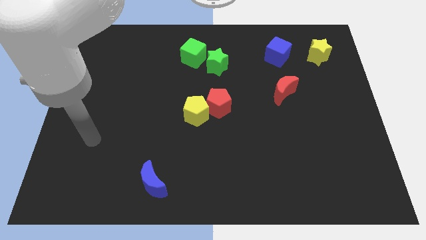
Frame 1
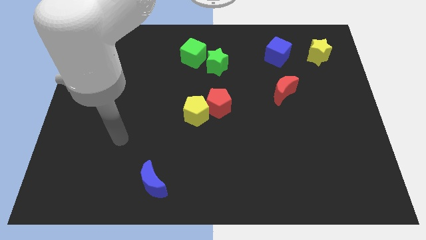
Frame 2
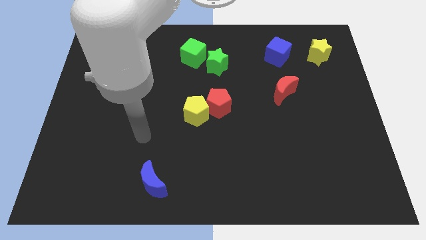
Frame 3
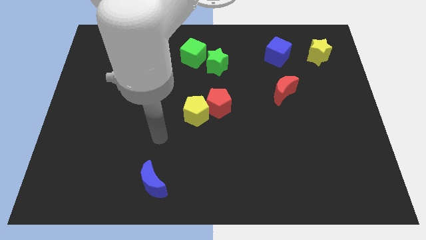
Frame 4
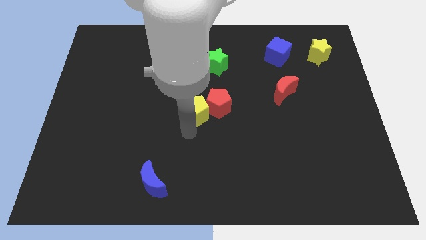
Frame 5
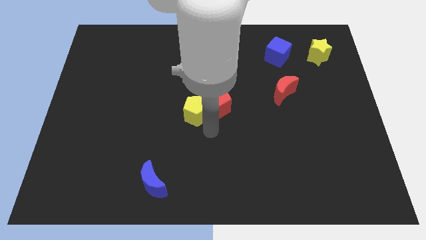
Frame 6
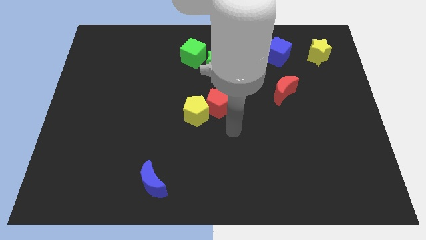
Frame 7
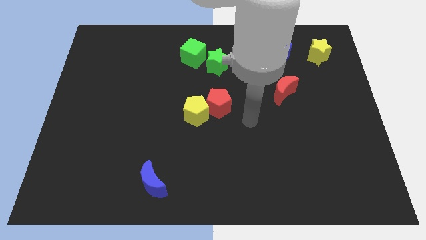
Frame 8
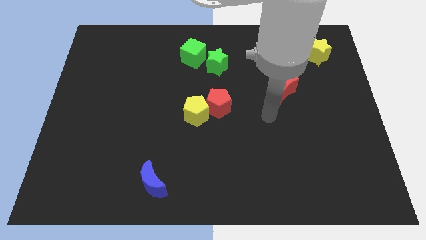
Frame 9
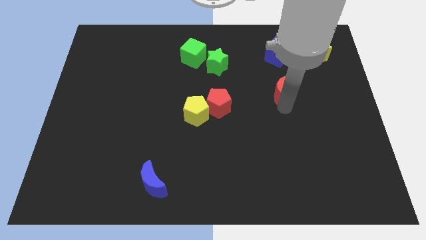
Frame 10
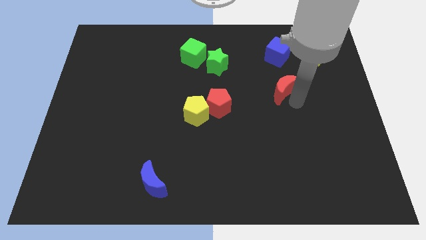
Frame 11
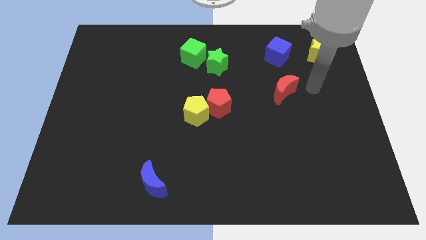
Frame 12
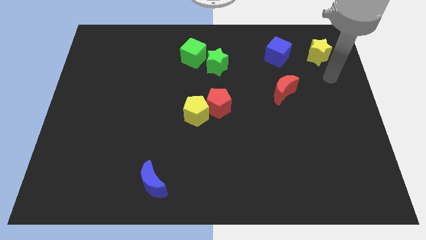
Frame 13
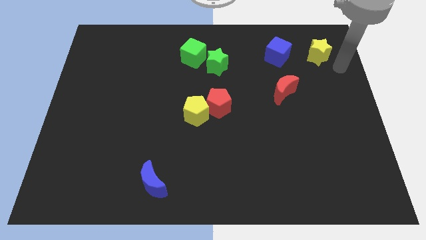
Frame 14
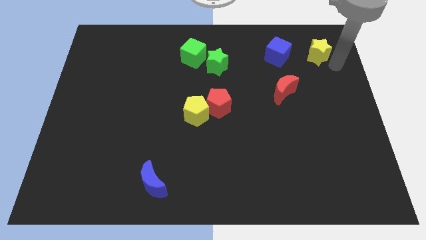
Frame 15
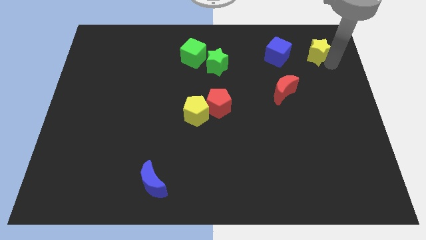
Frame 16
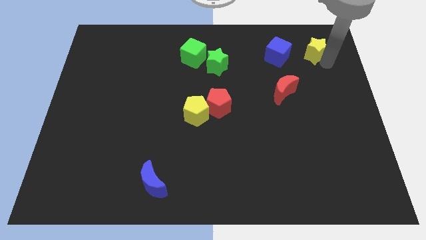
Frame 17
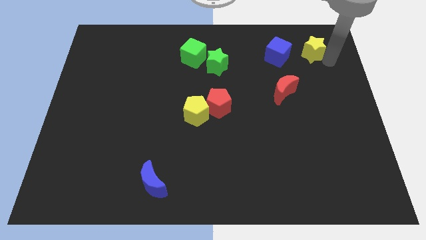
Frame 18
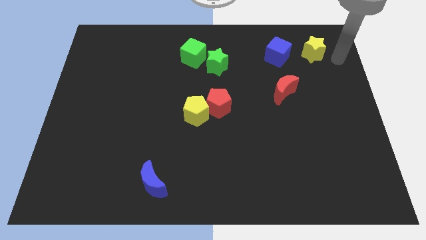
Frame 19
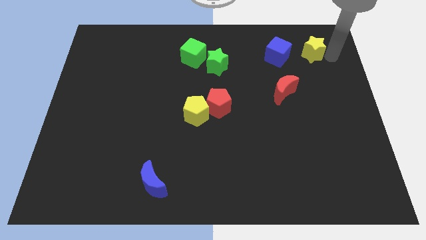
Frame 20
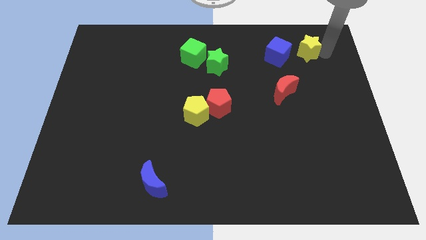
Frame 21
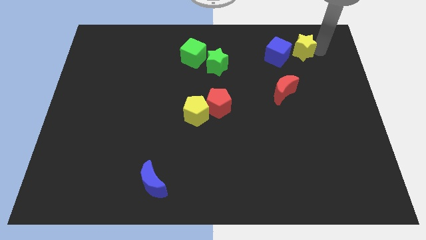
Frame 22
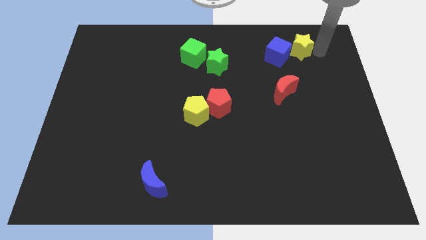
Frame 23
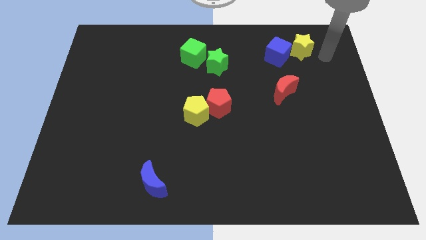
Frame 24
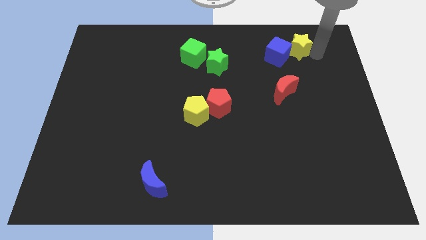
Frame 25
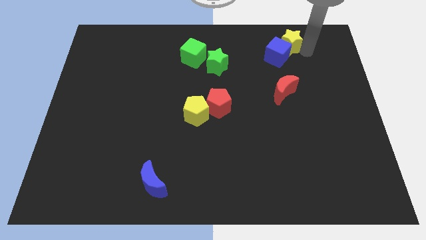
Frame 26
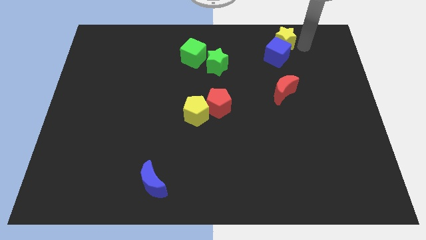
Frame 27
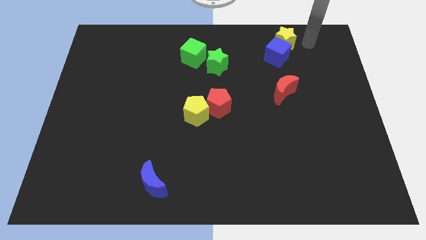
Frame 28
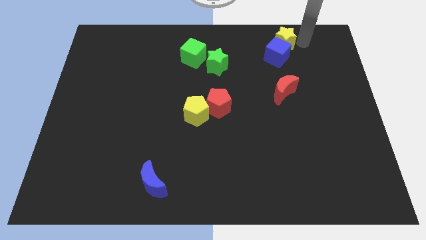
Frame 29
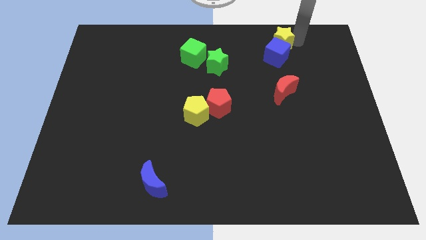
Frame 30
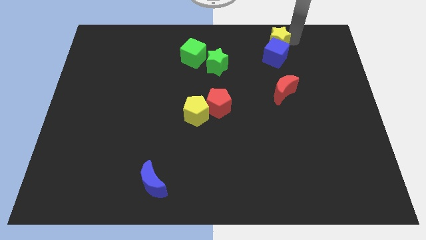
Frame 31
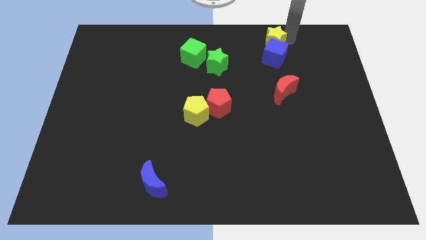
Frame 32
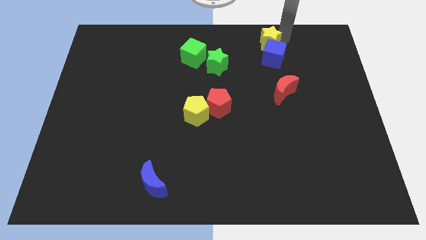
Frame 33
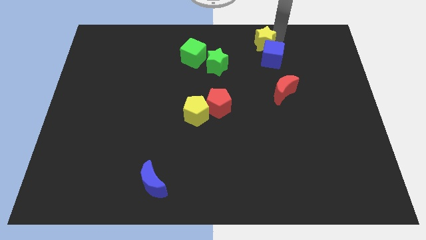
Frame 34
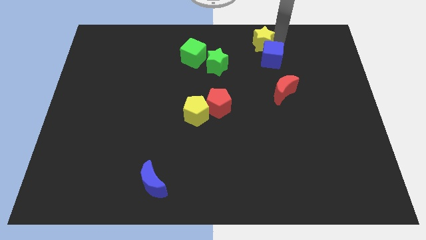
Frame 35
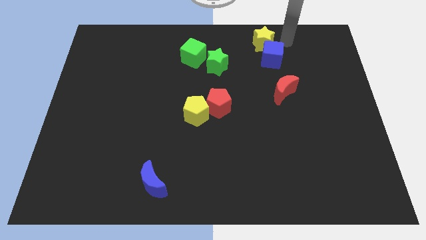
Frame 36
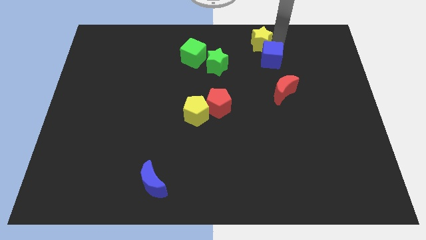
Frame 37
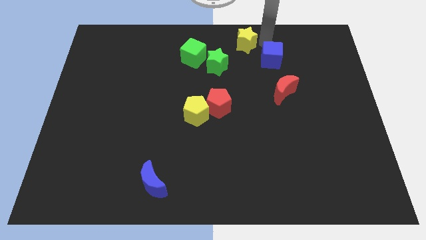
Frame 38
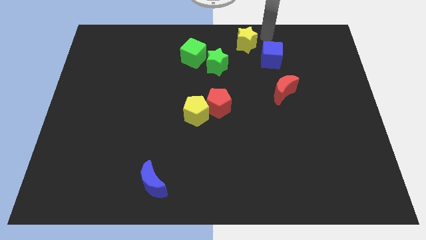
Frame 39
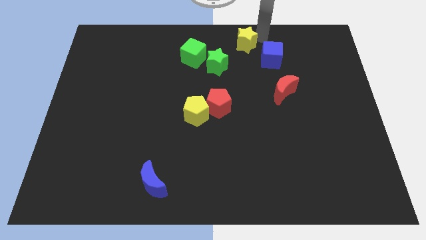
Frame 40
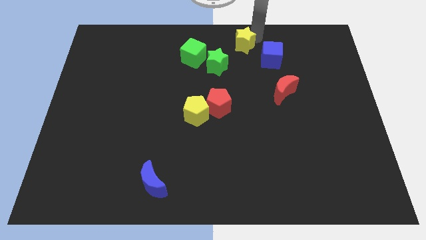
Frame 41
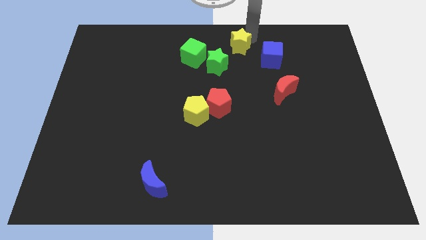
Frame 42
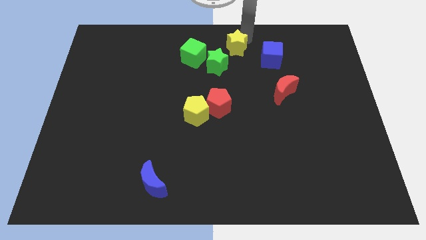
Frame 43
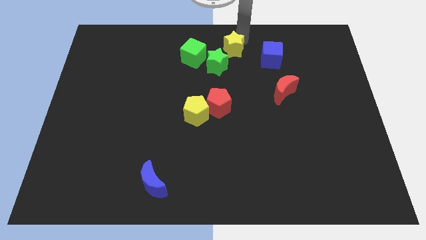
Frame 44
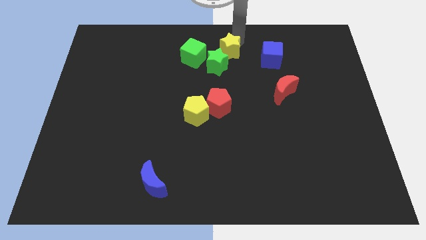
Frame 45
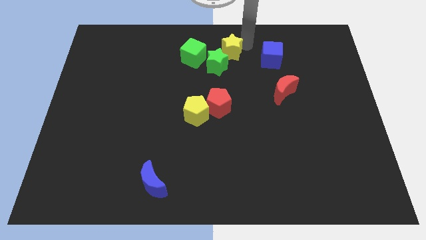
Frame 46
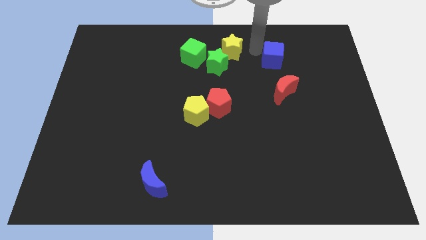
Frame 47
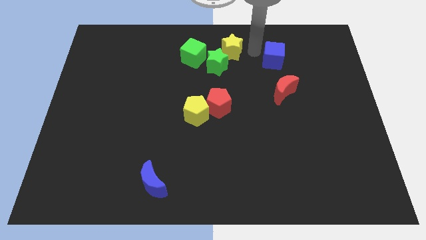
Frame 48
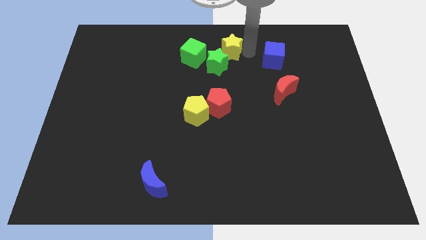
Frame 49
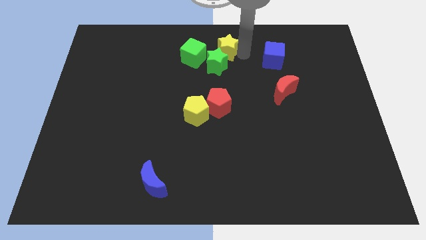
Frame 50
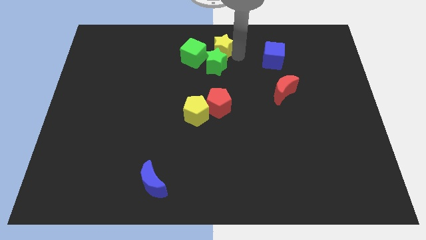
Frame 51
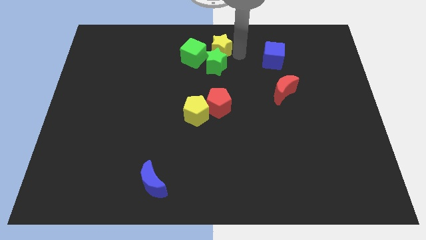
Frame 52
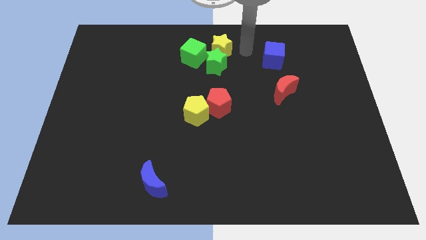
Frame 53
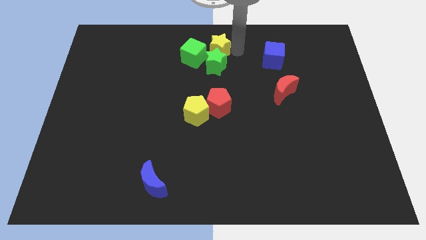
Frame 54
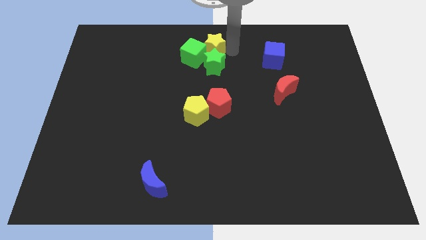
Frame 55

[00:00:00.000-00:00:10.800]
move the yellow star close to the green cube

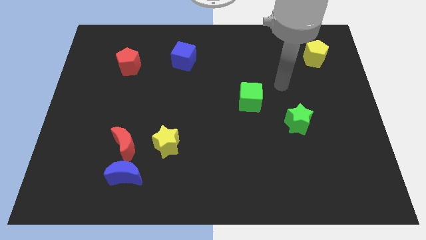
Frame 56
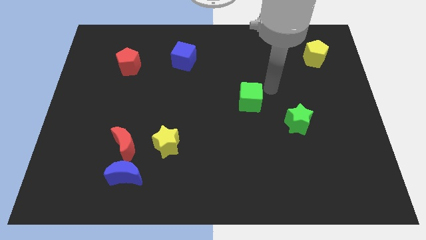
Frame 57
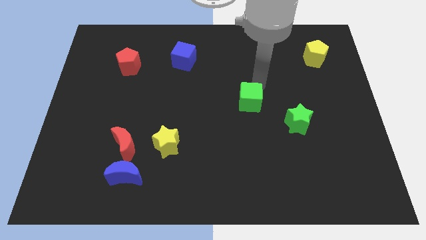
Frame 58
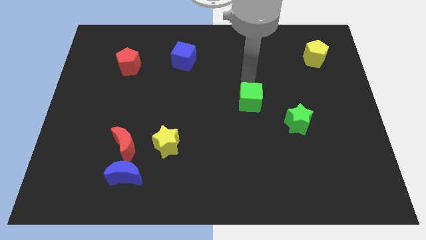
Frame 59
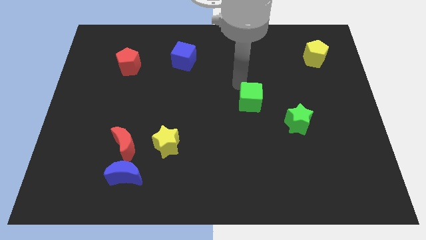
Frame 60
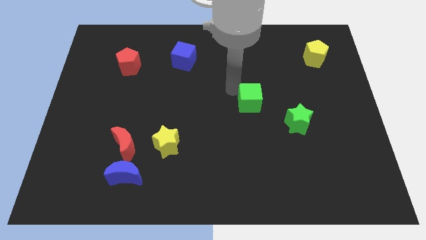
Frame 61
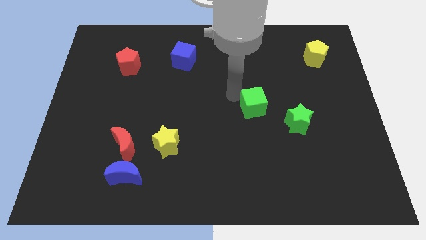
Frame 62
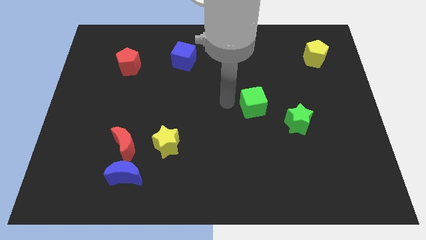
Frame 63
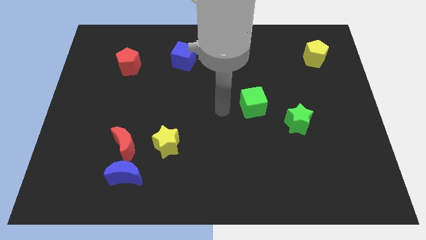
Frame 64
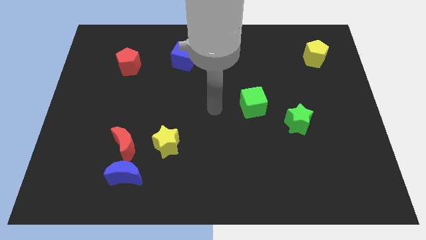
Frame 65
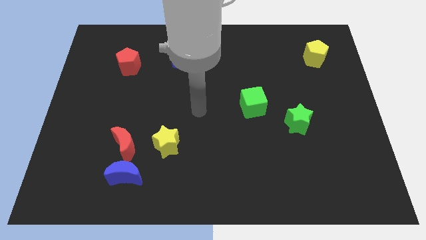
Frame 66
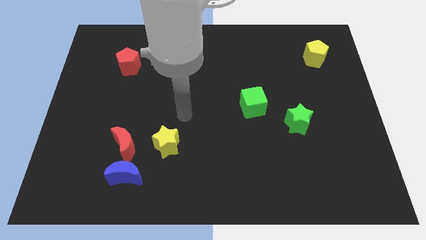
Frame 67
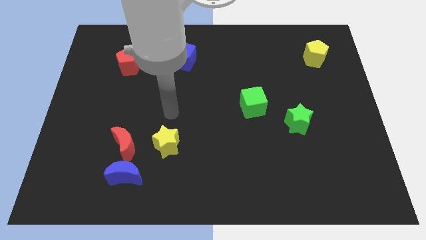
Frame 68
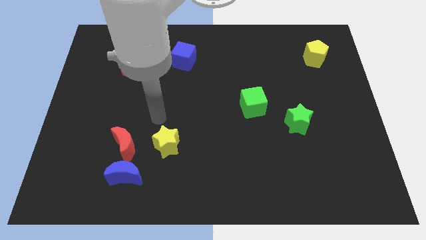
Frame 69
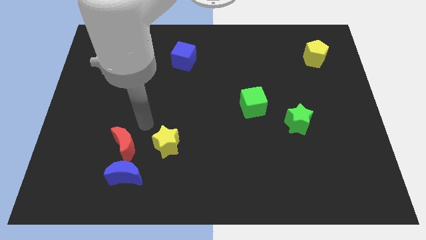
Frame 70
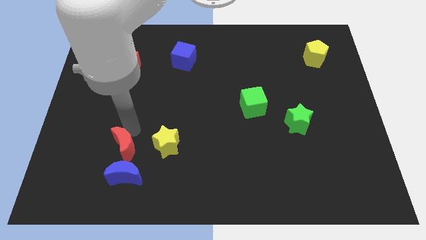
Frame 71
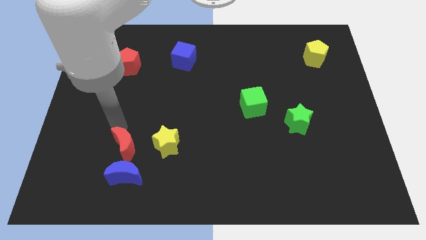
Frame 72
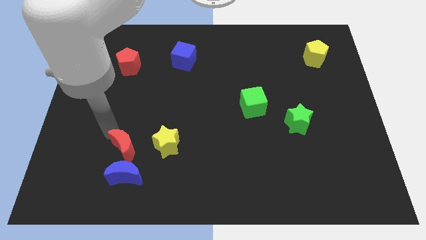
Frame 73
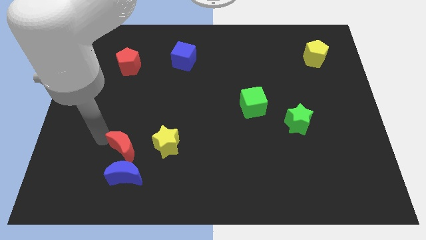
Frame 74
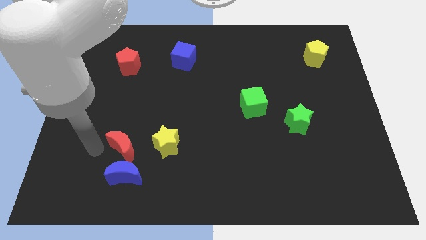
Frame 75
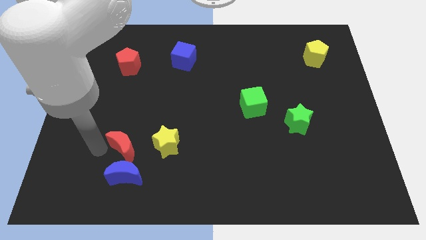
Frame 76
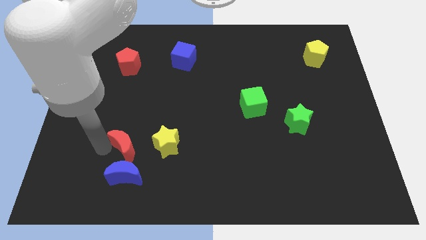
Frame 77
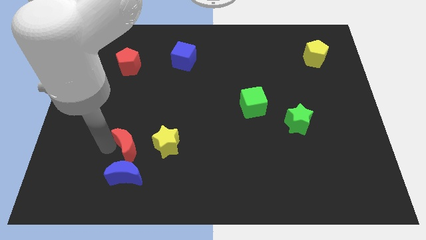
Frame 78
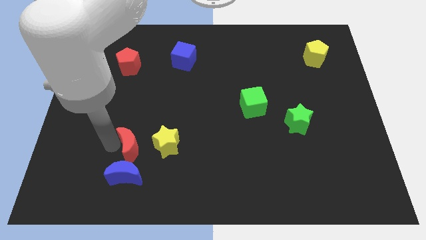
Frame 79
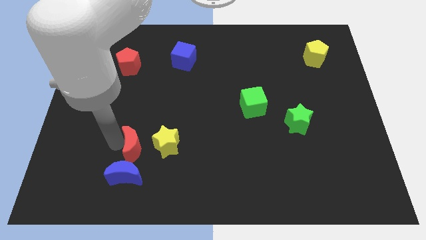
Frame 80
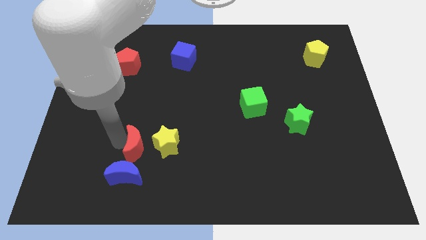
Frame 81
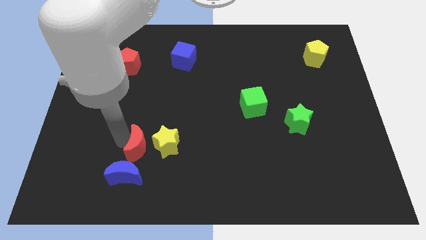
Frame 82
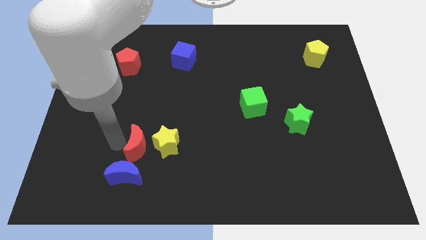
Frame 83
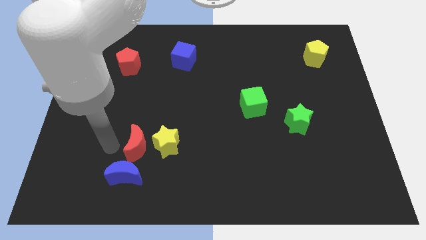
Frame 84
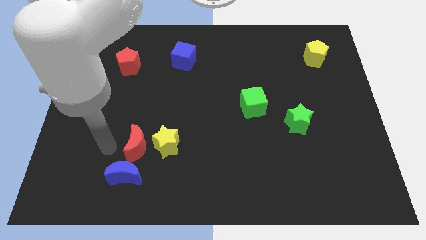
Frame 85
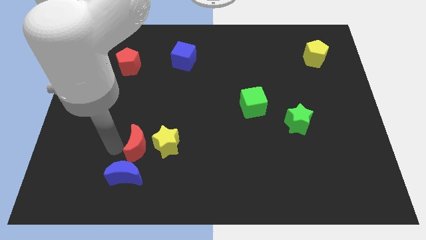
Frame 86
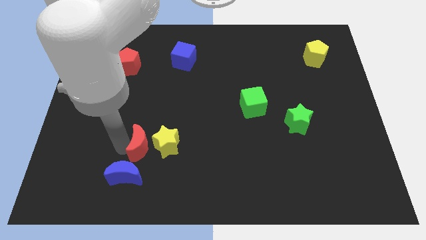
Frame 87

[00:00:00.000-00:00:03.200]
move the red moon next to the yellow star
